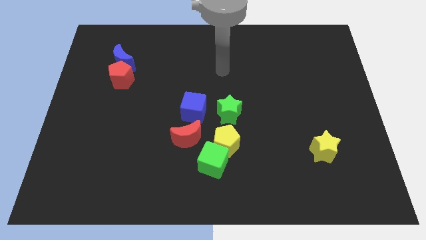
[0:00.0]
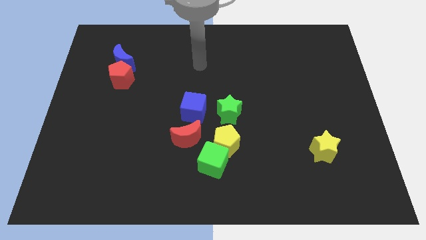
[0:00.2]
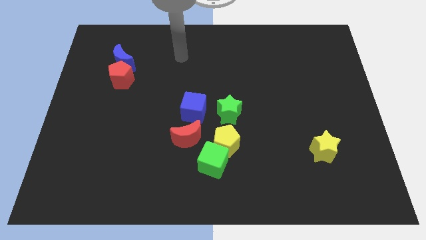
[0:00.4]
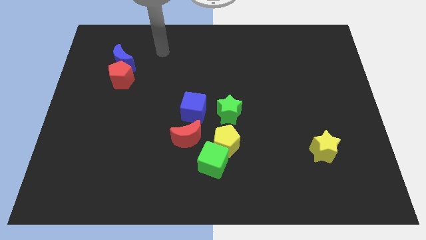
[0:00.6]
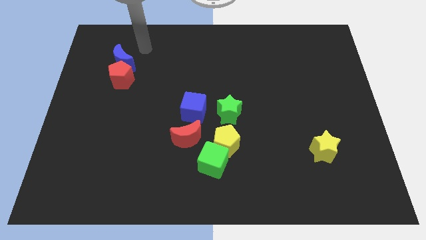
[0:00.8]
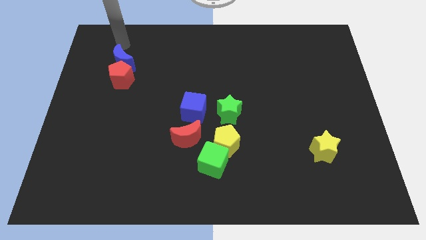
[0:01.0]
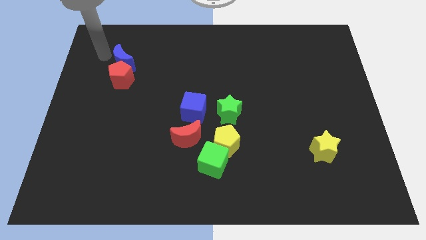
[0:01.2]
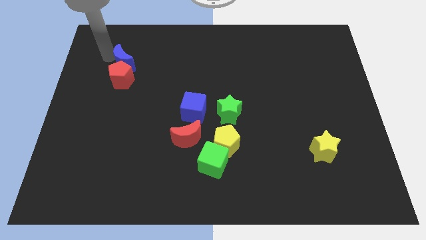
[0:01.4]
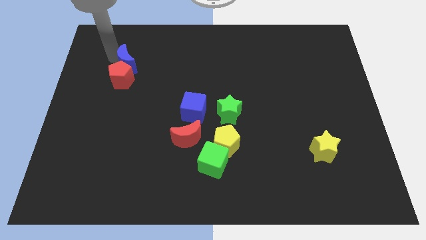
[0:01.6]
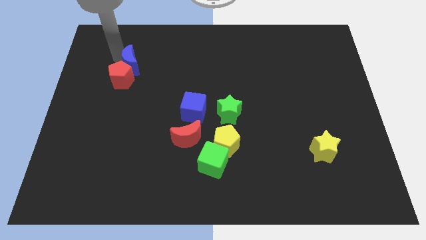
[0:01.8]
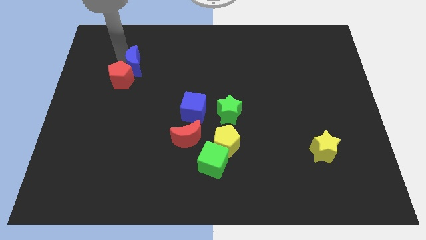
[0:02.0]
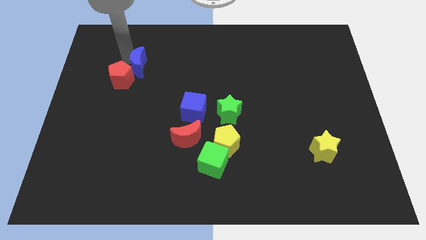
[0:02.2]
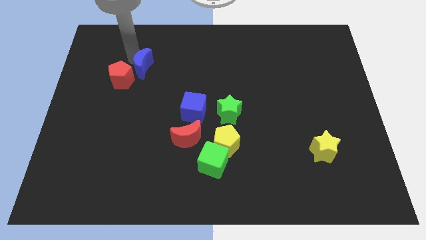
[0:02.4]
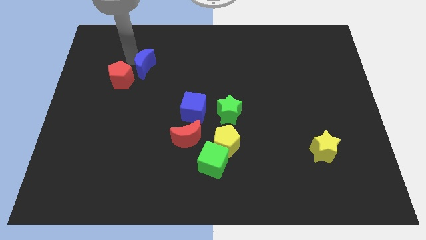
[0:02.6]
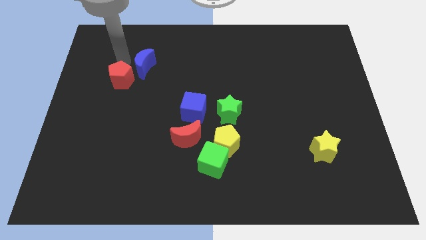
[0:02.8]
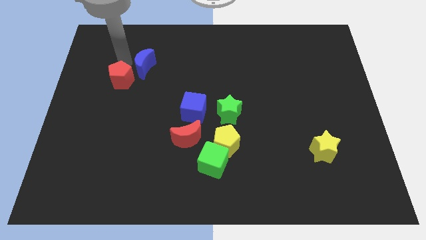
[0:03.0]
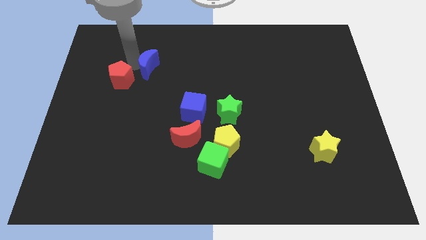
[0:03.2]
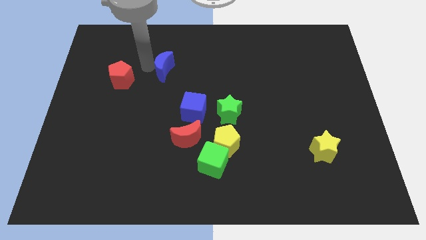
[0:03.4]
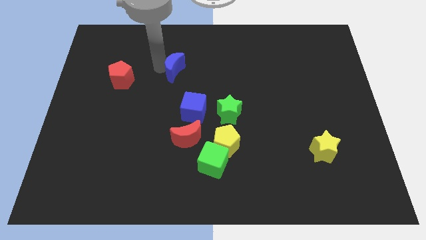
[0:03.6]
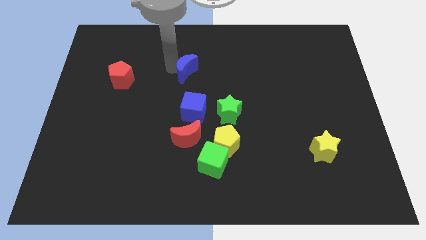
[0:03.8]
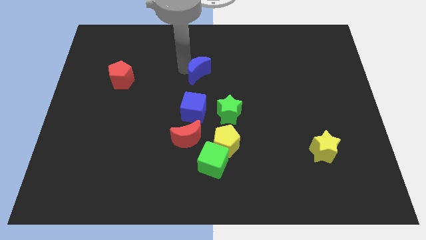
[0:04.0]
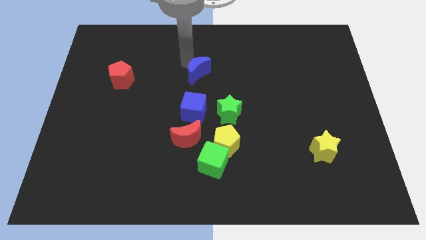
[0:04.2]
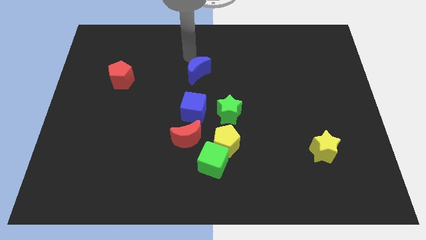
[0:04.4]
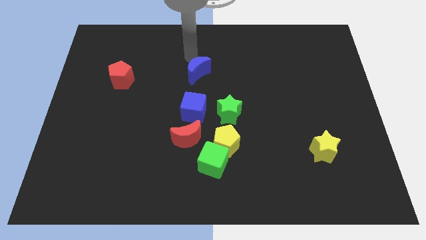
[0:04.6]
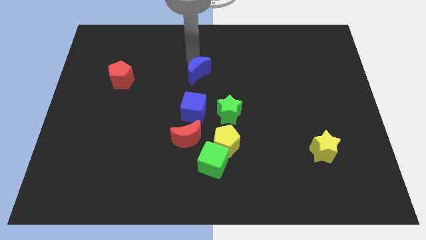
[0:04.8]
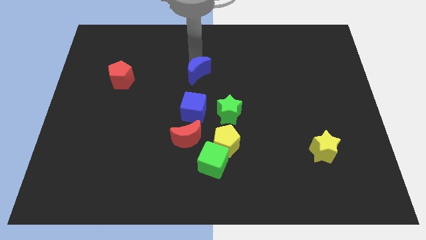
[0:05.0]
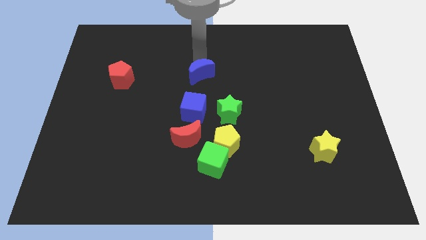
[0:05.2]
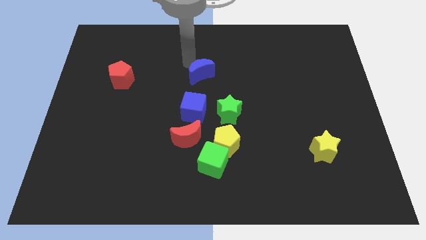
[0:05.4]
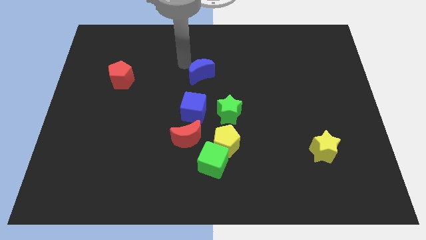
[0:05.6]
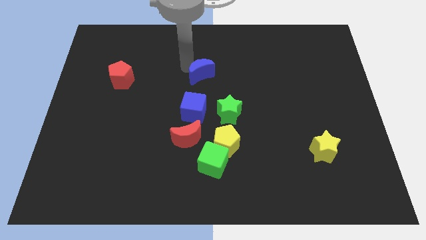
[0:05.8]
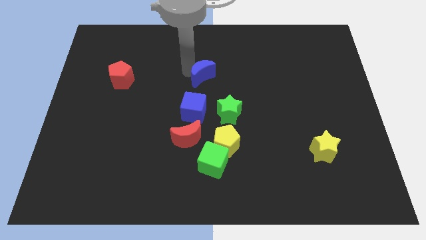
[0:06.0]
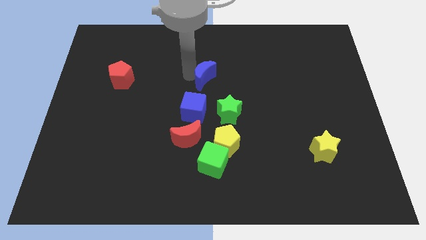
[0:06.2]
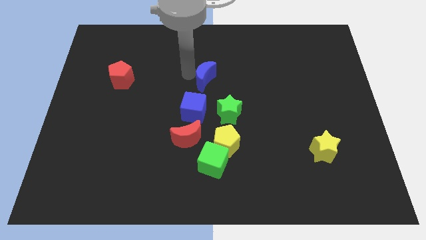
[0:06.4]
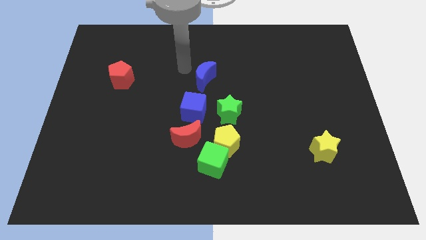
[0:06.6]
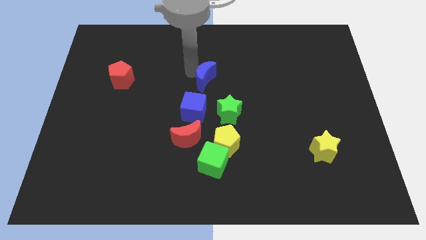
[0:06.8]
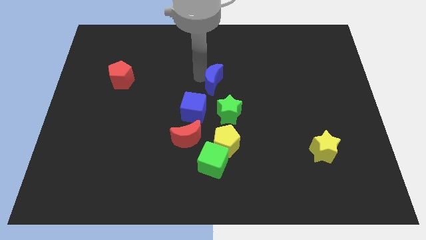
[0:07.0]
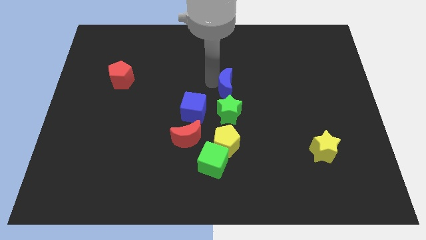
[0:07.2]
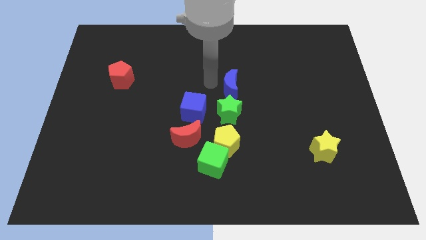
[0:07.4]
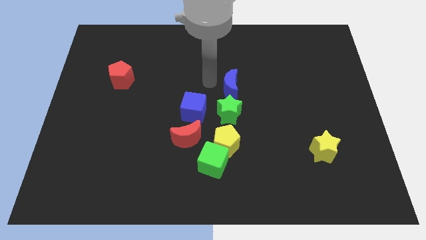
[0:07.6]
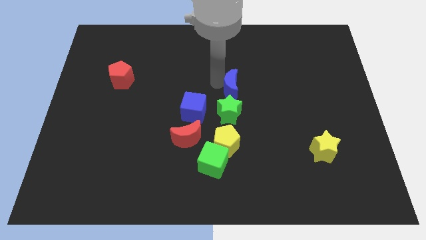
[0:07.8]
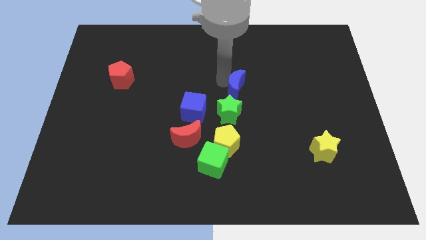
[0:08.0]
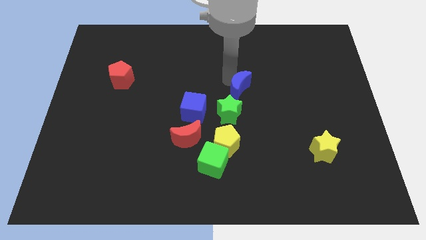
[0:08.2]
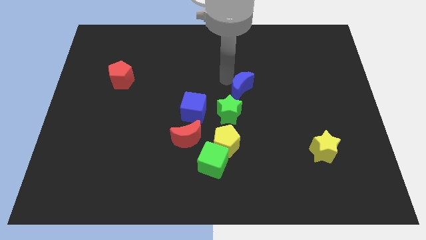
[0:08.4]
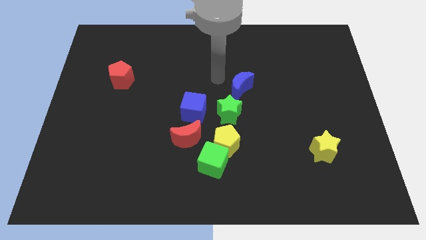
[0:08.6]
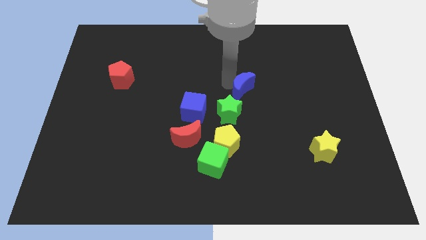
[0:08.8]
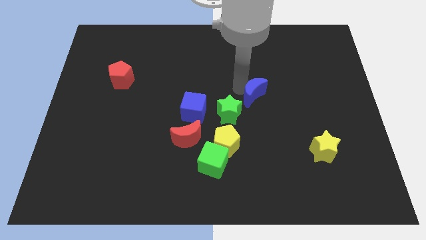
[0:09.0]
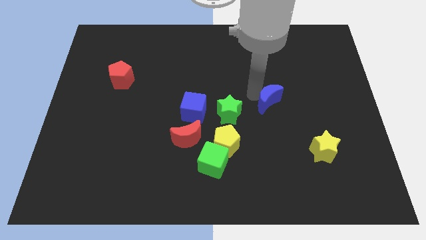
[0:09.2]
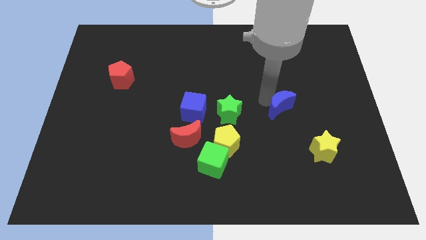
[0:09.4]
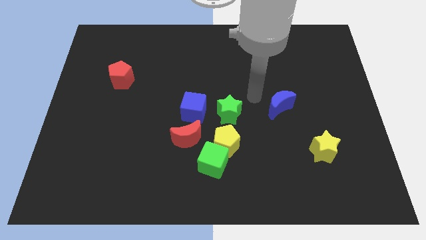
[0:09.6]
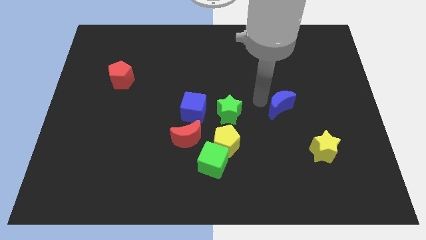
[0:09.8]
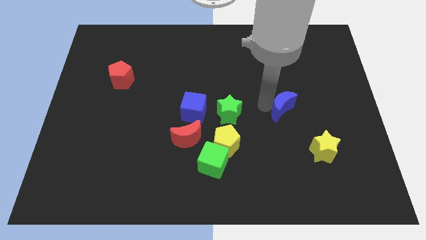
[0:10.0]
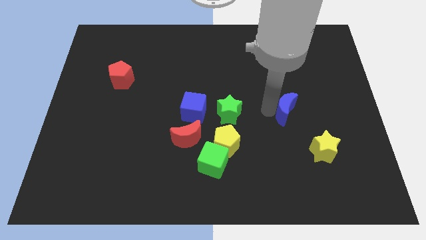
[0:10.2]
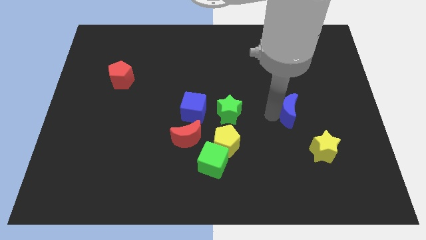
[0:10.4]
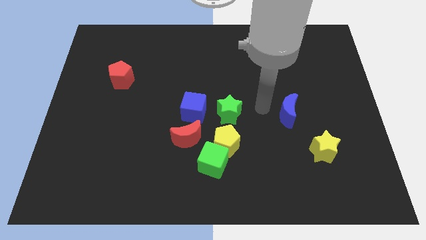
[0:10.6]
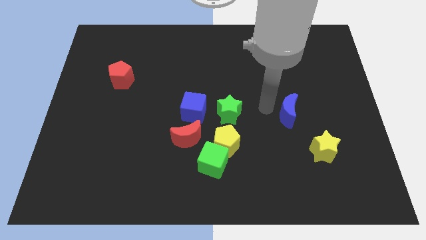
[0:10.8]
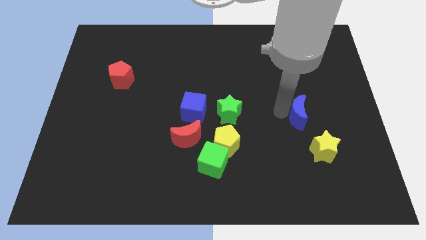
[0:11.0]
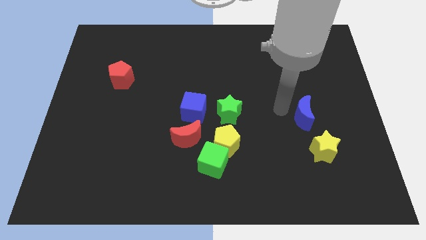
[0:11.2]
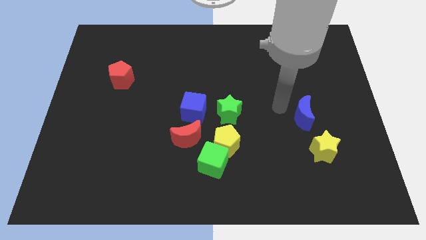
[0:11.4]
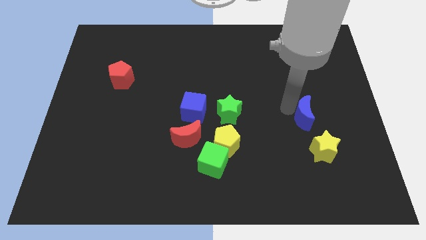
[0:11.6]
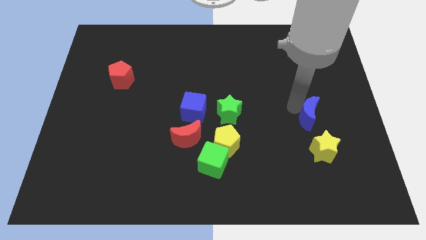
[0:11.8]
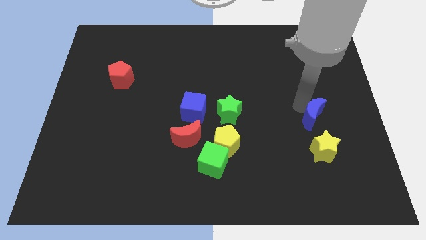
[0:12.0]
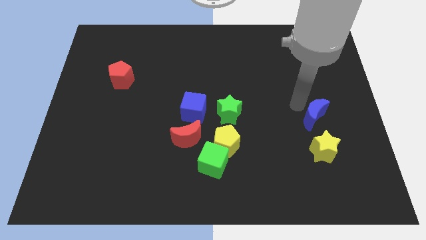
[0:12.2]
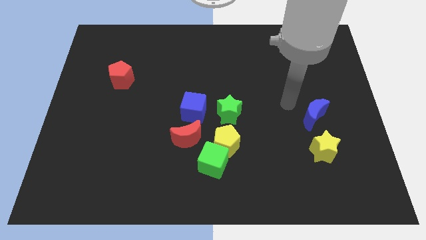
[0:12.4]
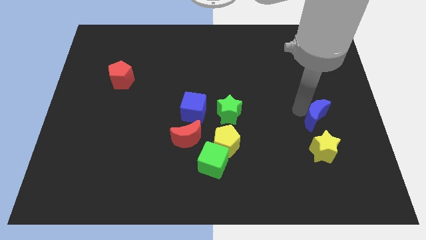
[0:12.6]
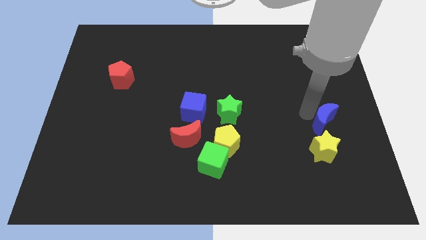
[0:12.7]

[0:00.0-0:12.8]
push the blue moon to the top right side of the yellow star

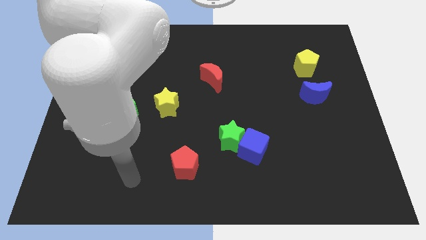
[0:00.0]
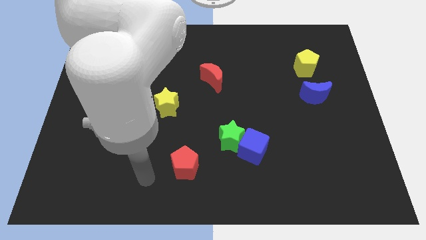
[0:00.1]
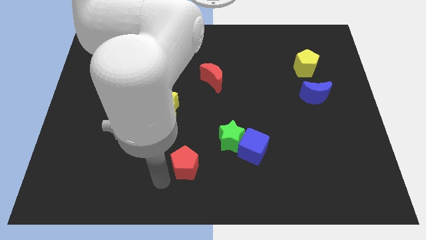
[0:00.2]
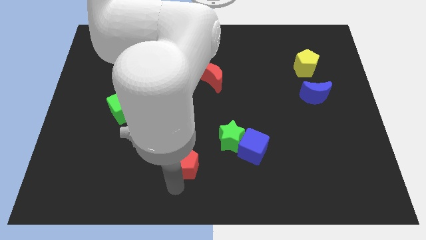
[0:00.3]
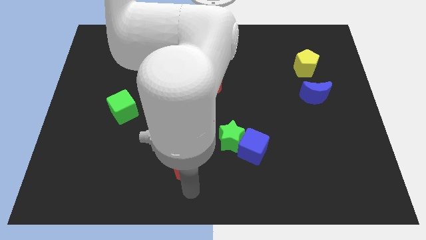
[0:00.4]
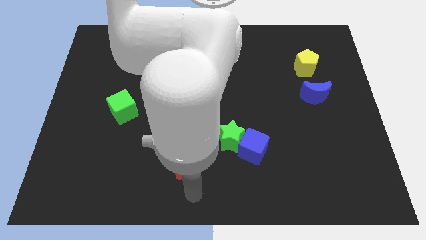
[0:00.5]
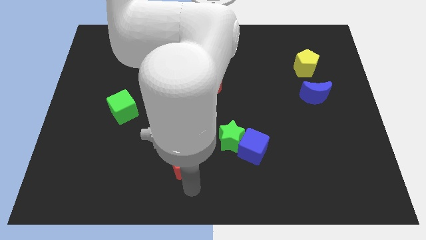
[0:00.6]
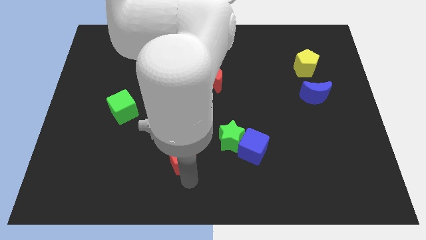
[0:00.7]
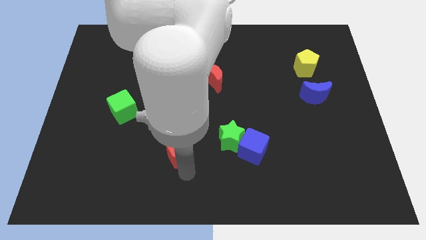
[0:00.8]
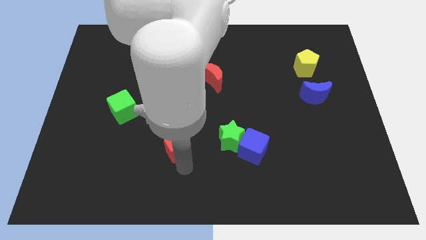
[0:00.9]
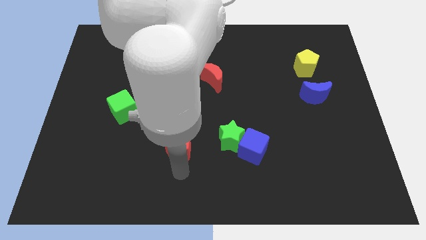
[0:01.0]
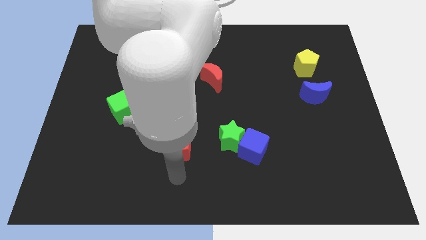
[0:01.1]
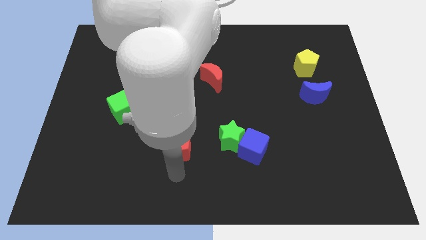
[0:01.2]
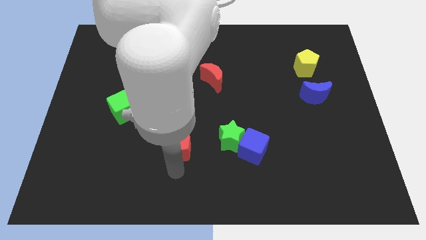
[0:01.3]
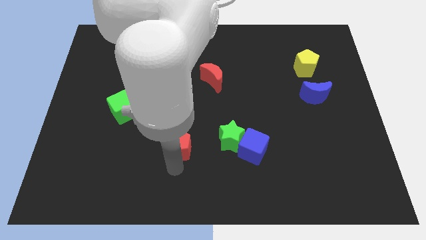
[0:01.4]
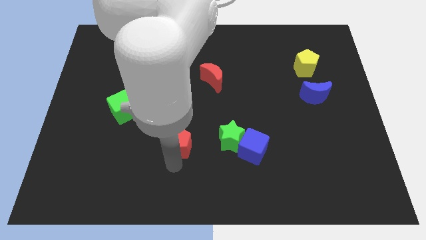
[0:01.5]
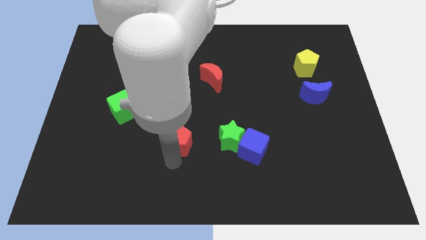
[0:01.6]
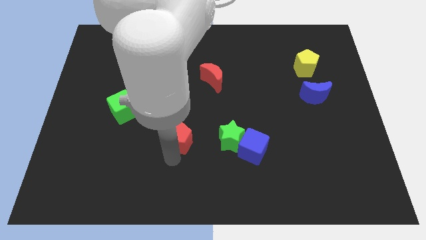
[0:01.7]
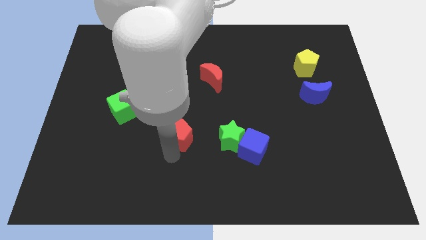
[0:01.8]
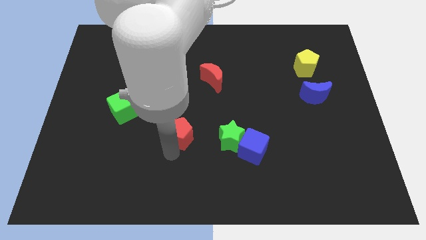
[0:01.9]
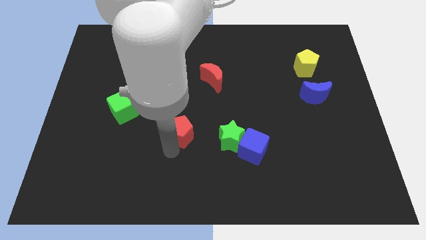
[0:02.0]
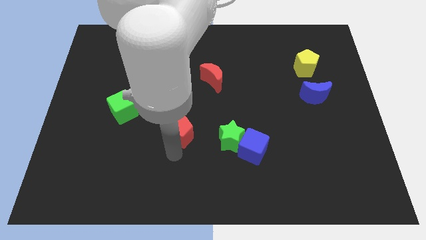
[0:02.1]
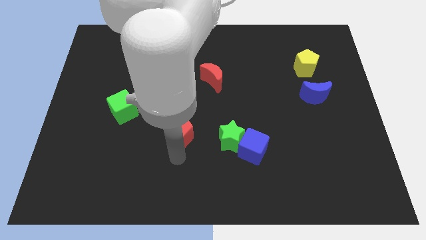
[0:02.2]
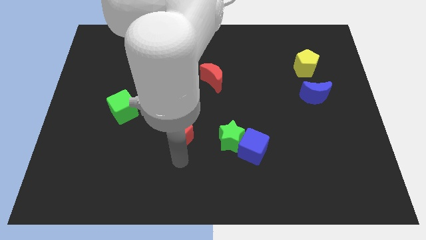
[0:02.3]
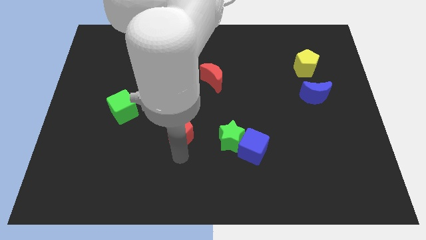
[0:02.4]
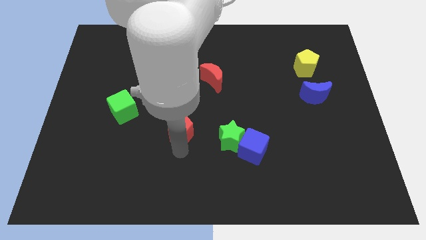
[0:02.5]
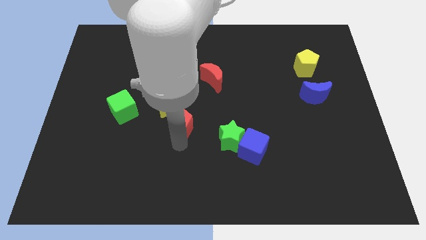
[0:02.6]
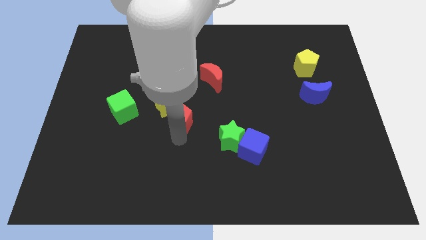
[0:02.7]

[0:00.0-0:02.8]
slide the red pentagon just right of the green cube
